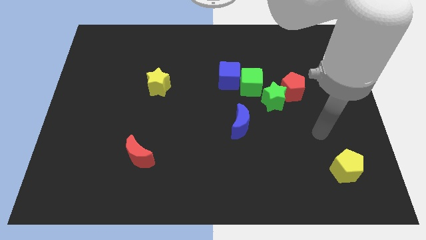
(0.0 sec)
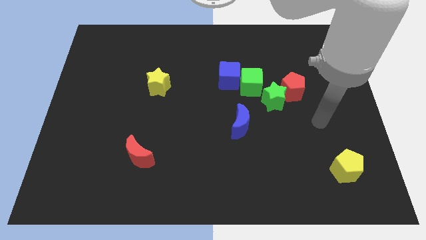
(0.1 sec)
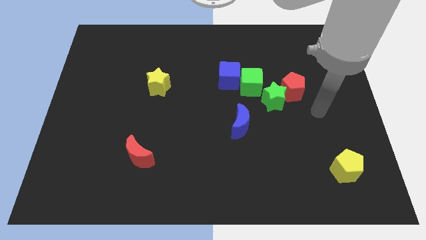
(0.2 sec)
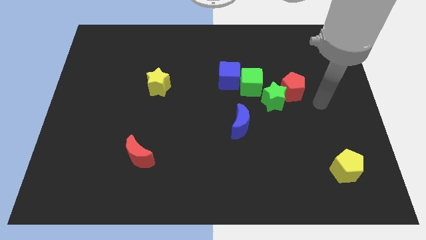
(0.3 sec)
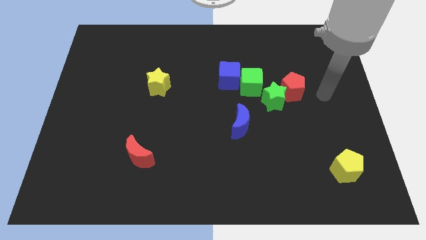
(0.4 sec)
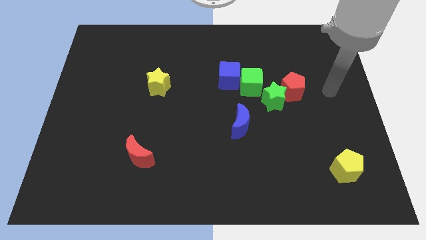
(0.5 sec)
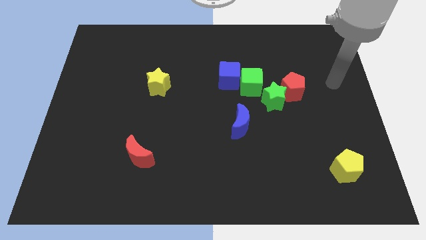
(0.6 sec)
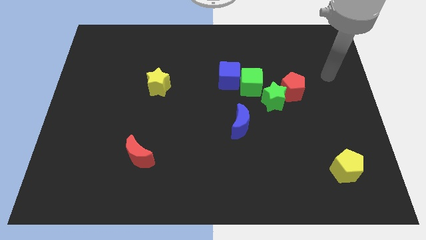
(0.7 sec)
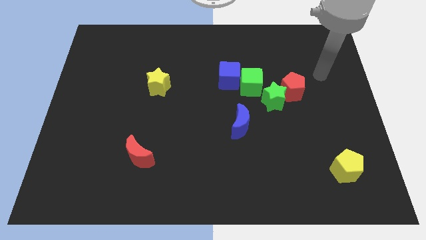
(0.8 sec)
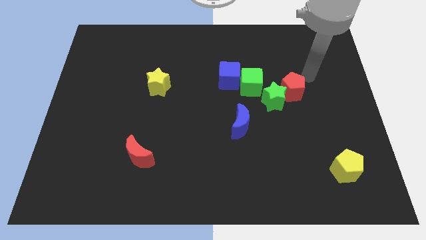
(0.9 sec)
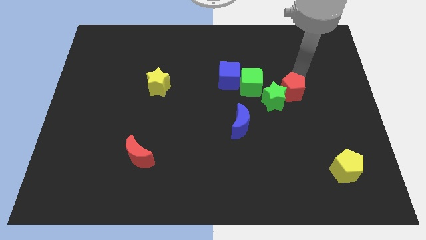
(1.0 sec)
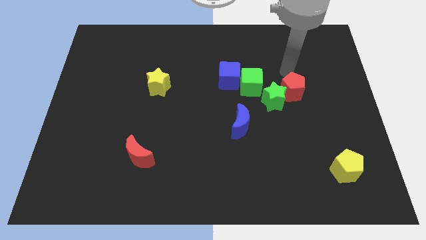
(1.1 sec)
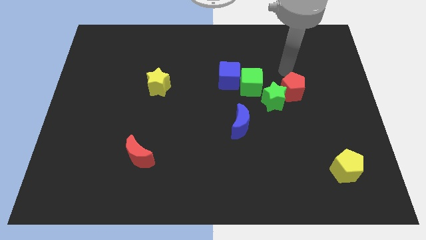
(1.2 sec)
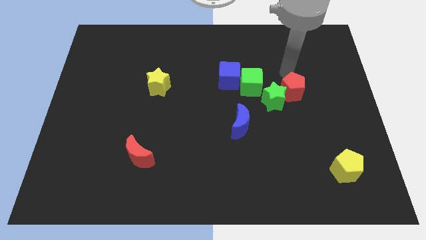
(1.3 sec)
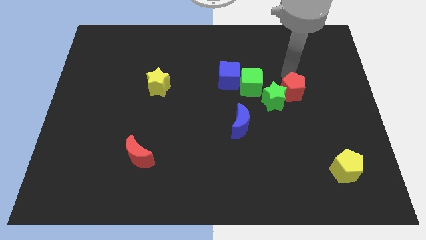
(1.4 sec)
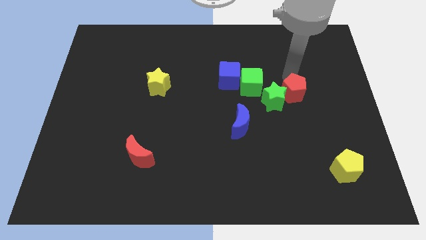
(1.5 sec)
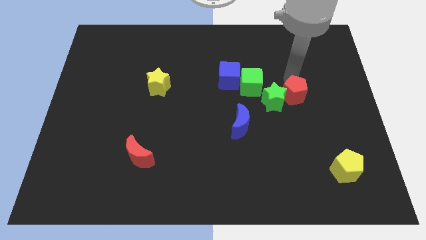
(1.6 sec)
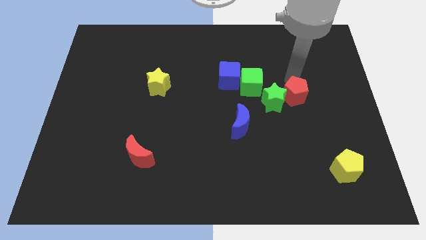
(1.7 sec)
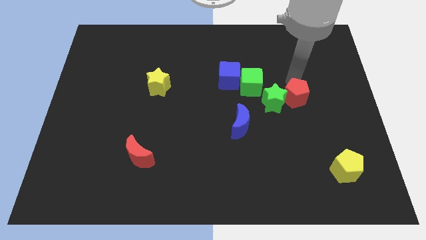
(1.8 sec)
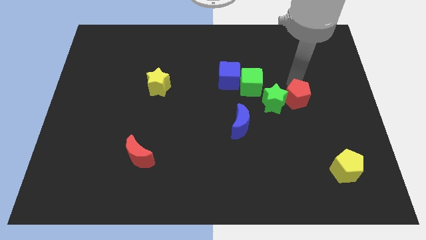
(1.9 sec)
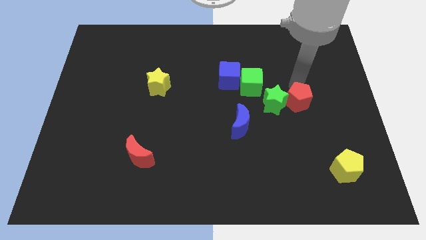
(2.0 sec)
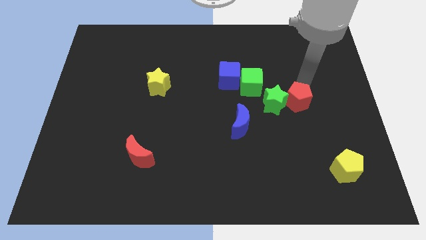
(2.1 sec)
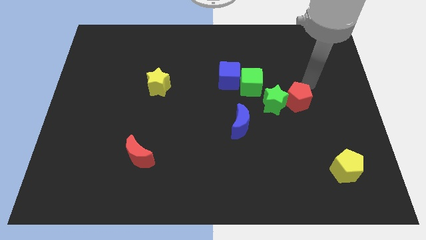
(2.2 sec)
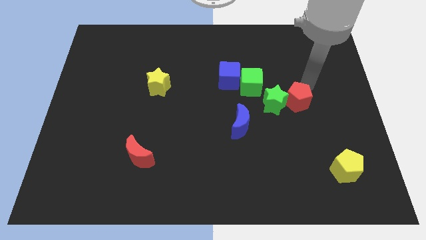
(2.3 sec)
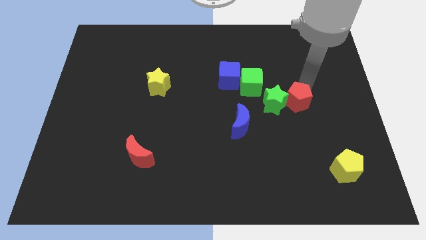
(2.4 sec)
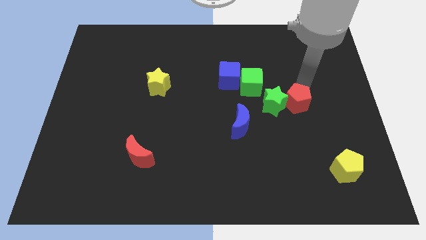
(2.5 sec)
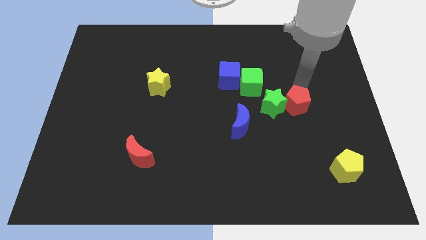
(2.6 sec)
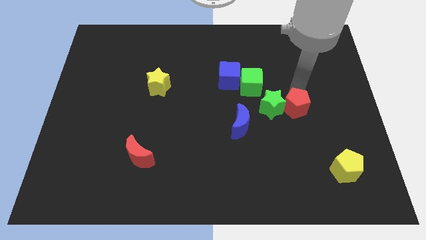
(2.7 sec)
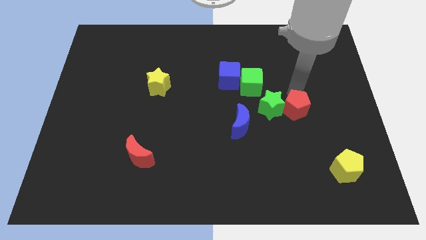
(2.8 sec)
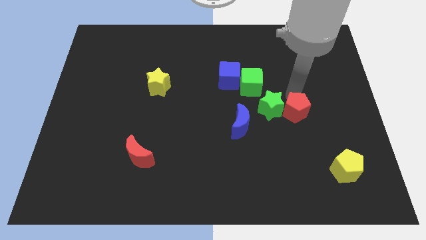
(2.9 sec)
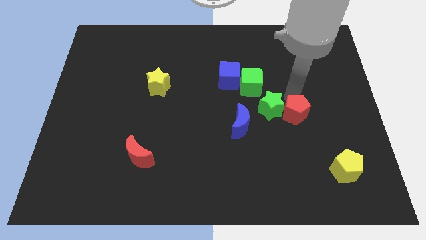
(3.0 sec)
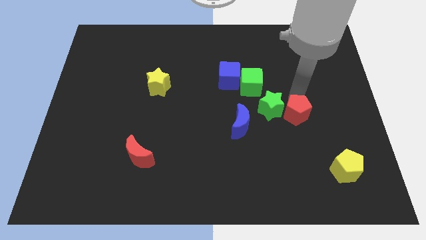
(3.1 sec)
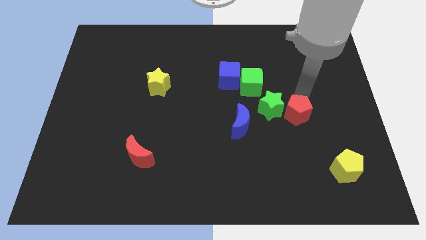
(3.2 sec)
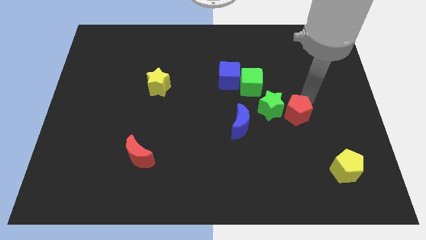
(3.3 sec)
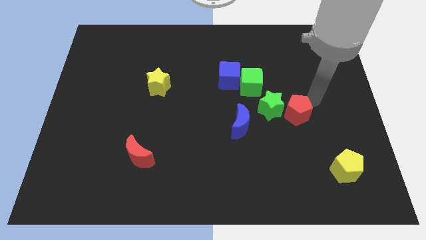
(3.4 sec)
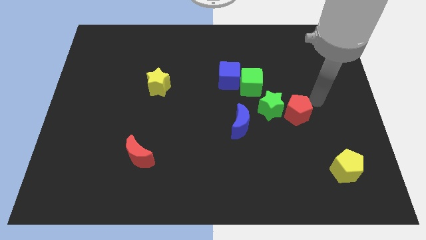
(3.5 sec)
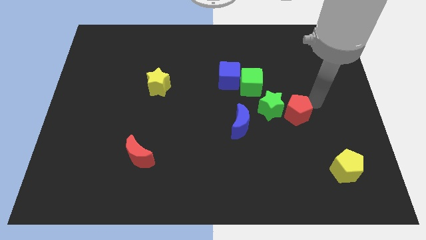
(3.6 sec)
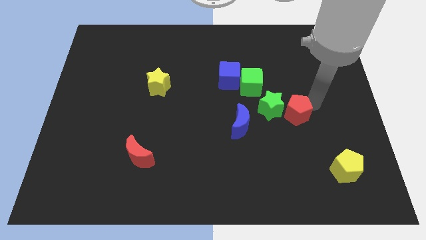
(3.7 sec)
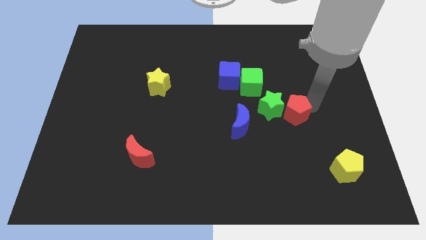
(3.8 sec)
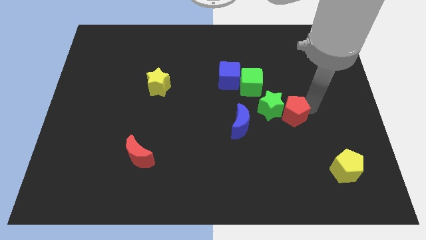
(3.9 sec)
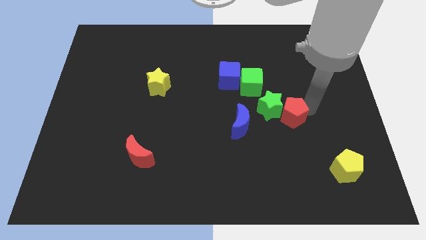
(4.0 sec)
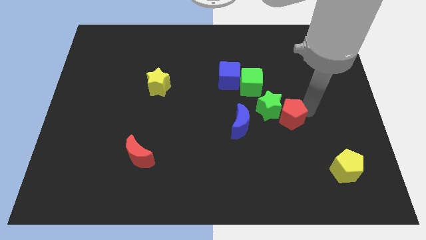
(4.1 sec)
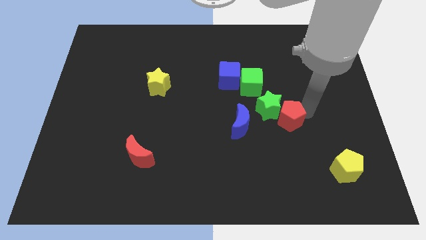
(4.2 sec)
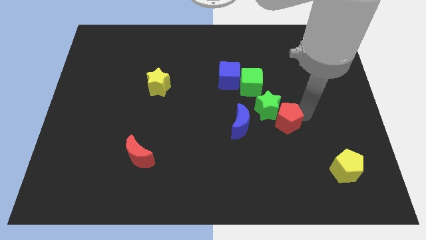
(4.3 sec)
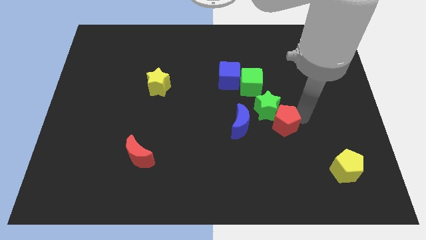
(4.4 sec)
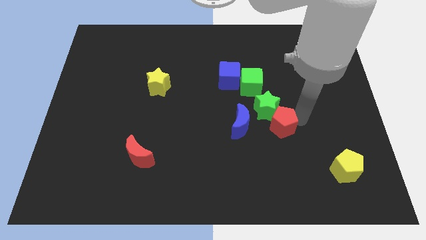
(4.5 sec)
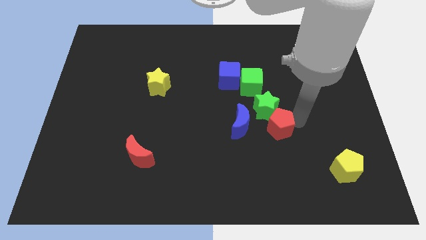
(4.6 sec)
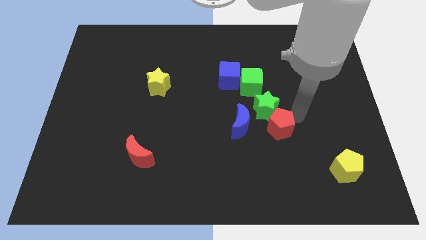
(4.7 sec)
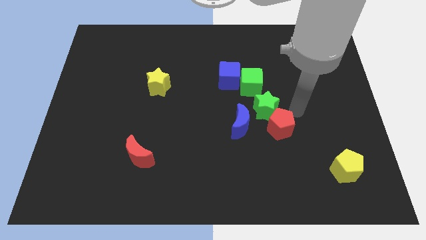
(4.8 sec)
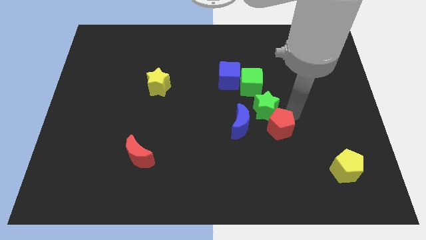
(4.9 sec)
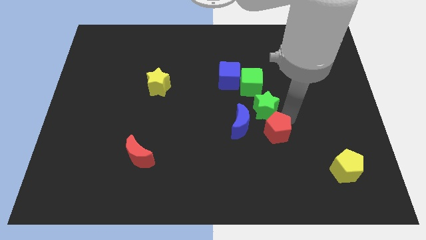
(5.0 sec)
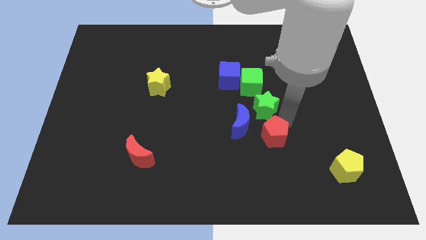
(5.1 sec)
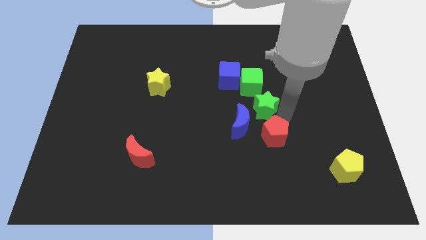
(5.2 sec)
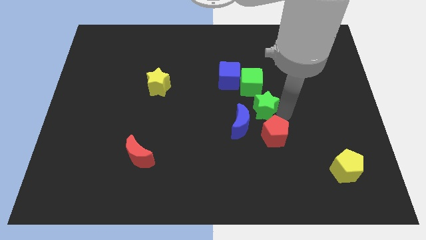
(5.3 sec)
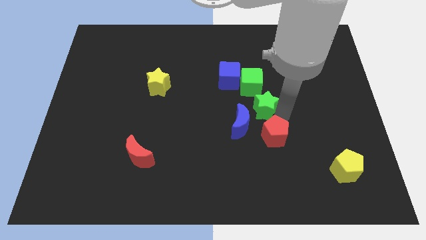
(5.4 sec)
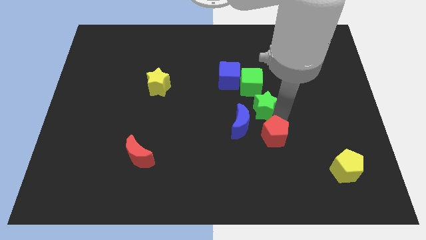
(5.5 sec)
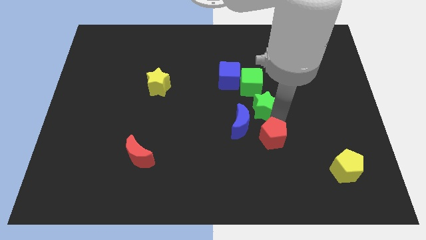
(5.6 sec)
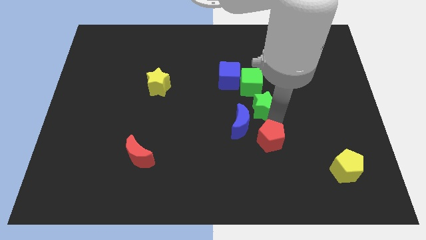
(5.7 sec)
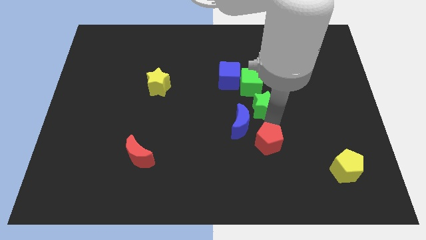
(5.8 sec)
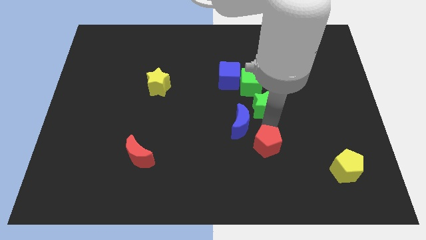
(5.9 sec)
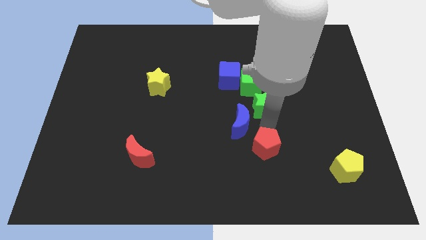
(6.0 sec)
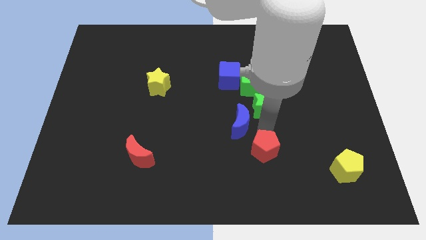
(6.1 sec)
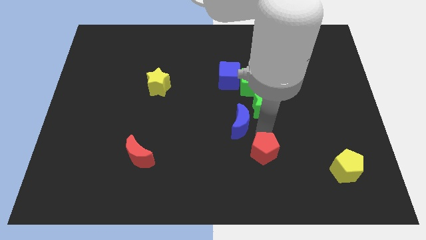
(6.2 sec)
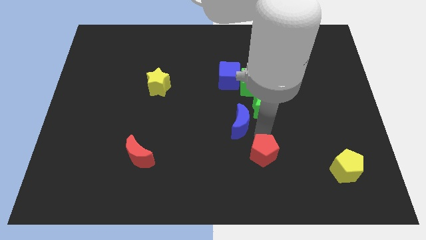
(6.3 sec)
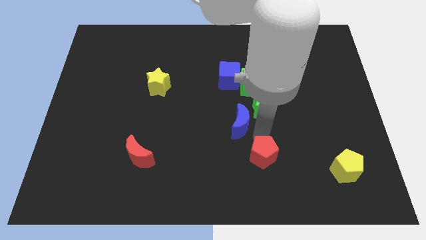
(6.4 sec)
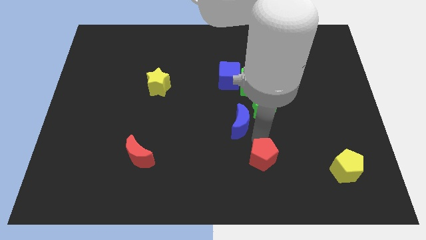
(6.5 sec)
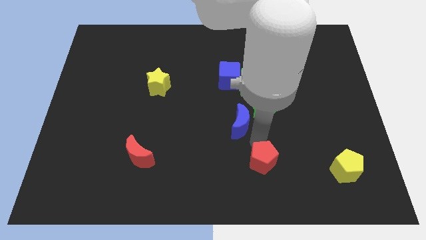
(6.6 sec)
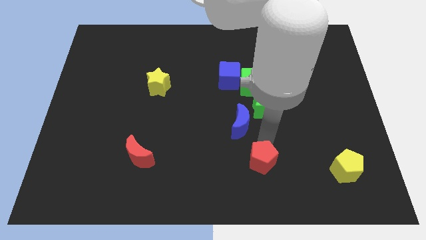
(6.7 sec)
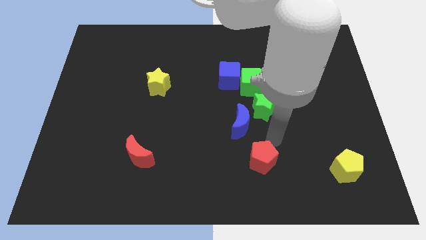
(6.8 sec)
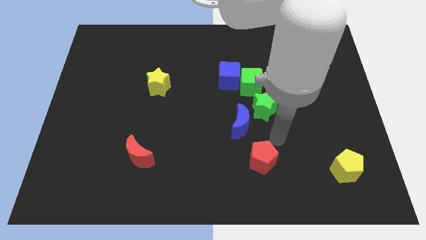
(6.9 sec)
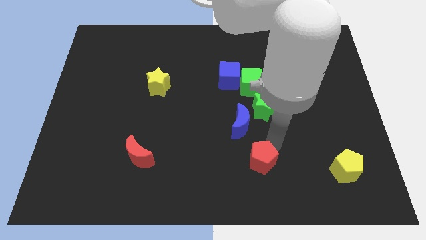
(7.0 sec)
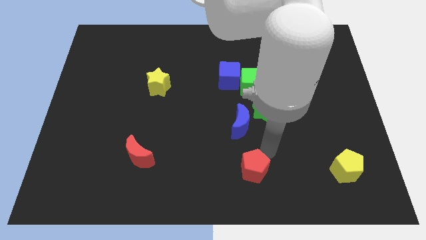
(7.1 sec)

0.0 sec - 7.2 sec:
put the red pentagon to the bottom
